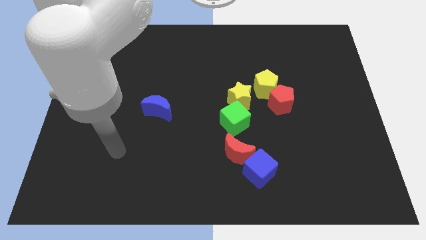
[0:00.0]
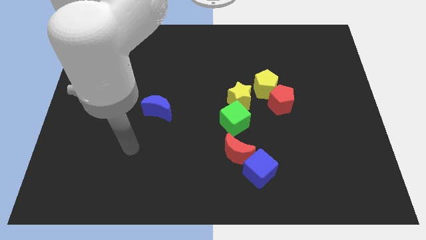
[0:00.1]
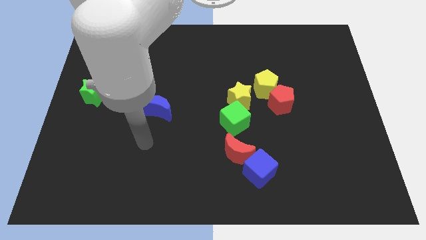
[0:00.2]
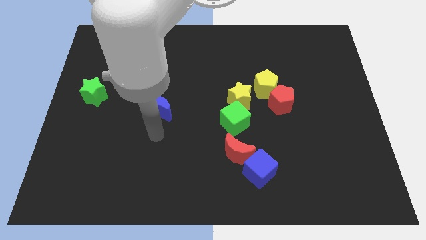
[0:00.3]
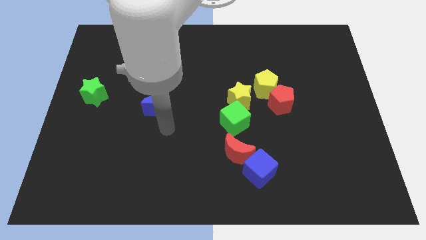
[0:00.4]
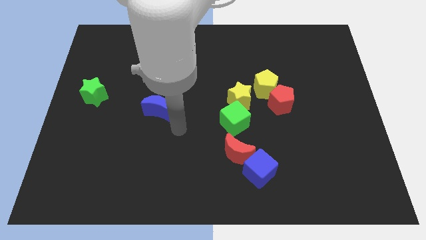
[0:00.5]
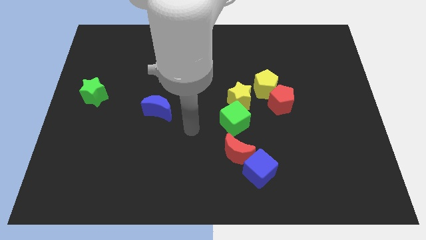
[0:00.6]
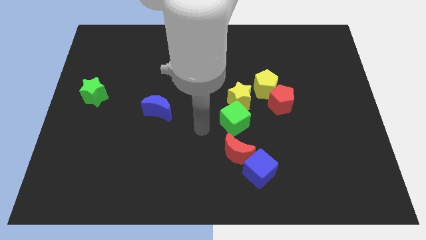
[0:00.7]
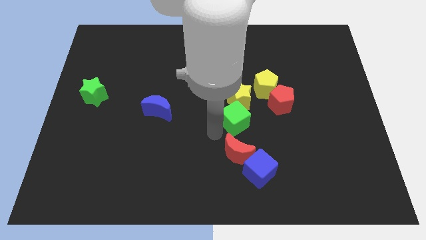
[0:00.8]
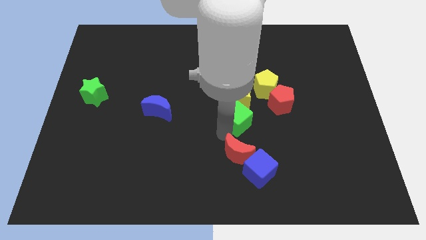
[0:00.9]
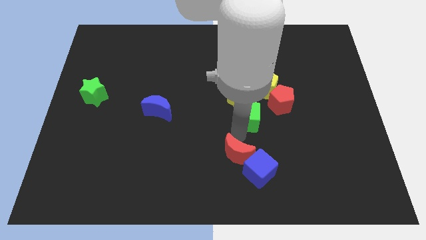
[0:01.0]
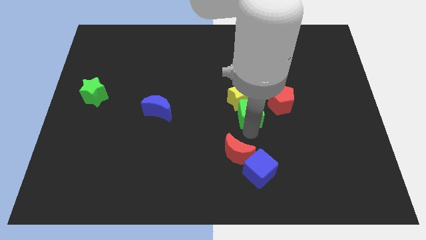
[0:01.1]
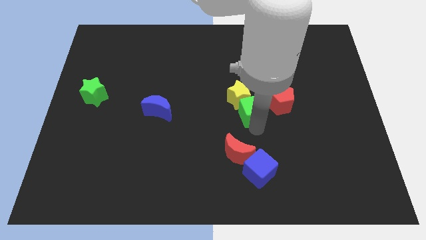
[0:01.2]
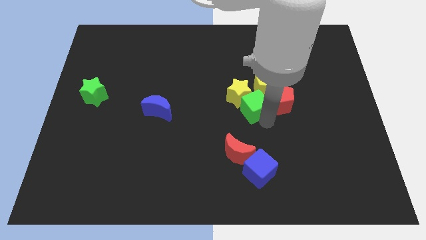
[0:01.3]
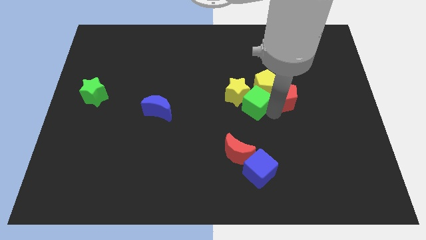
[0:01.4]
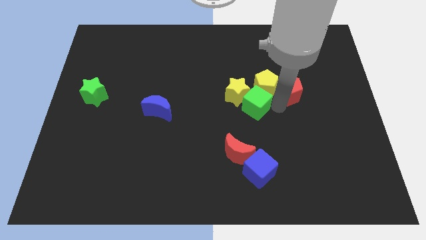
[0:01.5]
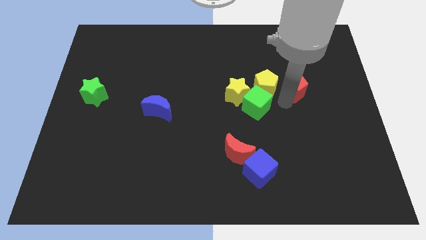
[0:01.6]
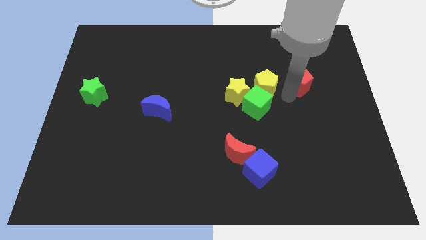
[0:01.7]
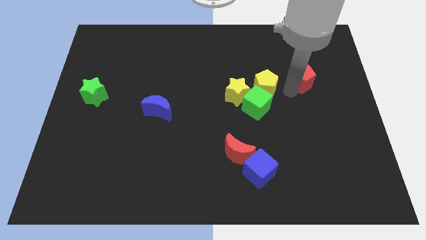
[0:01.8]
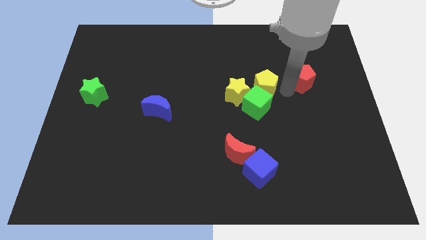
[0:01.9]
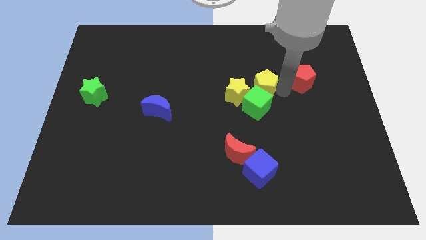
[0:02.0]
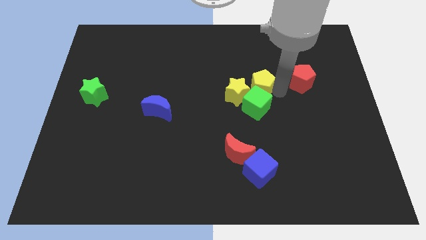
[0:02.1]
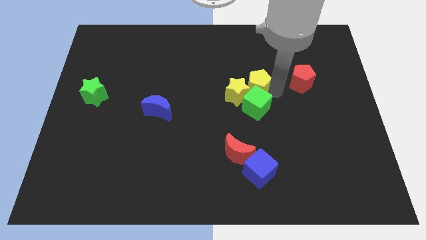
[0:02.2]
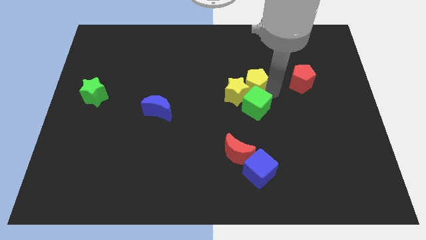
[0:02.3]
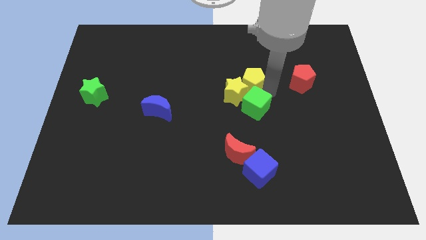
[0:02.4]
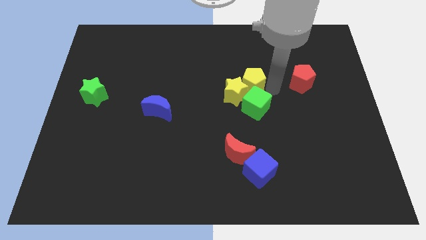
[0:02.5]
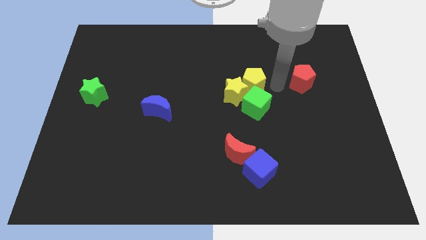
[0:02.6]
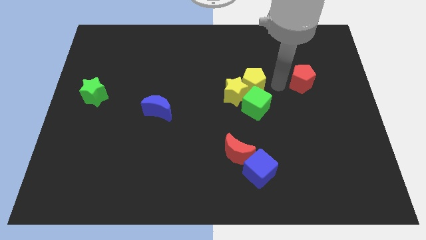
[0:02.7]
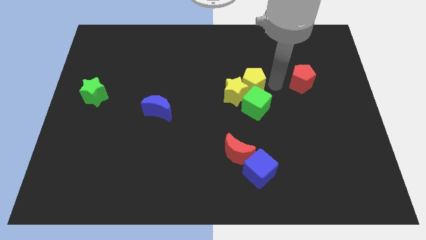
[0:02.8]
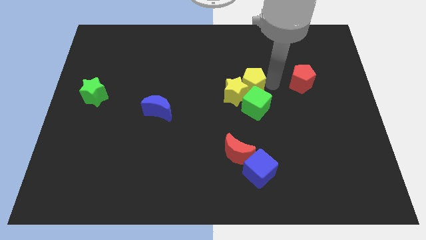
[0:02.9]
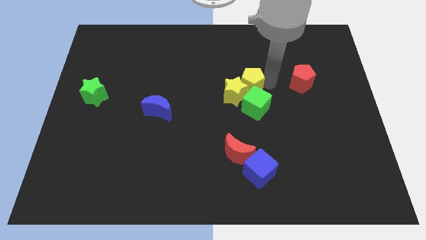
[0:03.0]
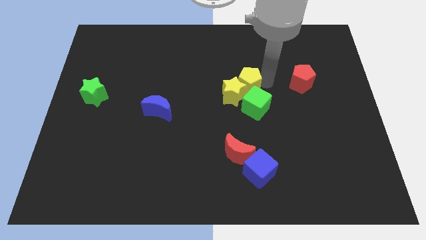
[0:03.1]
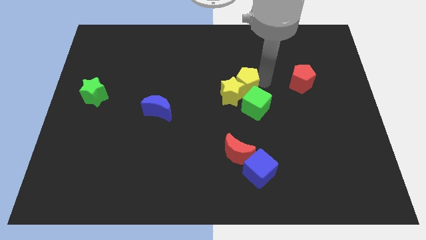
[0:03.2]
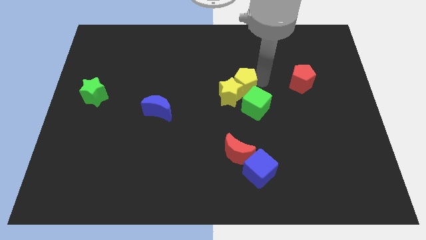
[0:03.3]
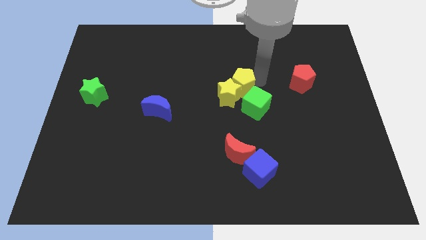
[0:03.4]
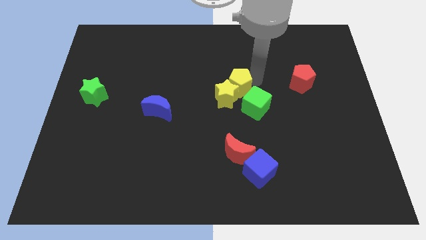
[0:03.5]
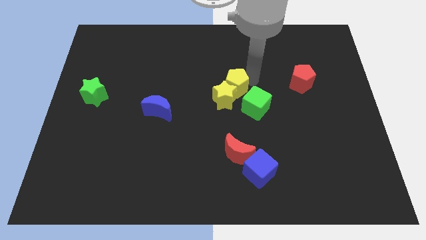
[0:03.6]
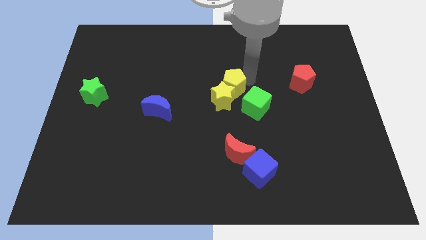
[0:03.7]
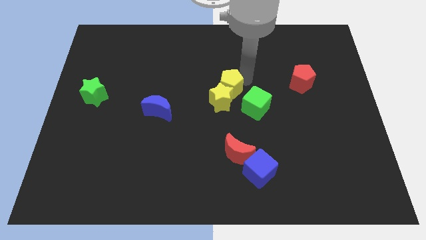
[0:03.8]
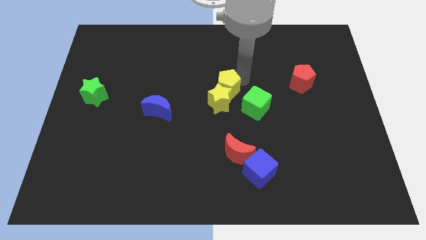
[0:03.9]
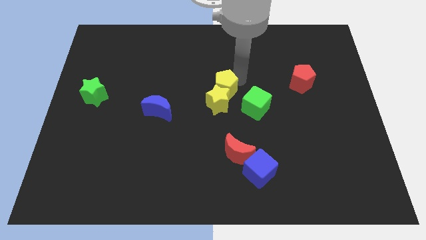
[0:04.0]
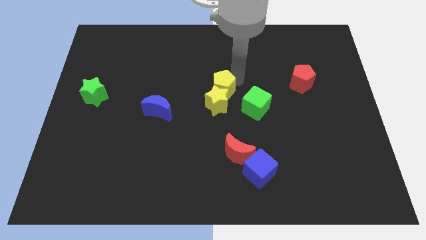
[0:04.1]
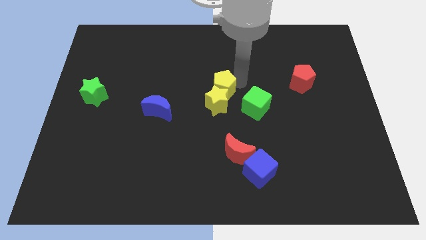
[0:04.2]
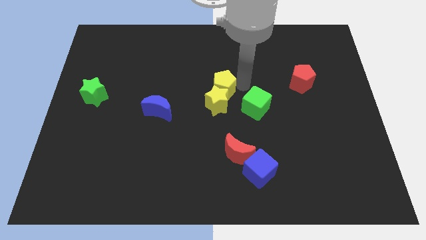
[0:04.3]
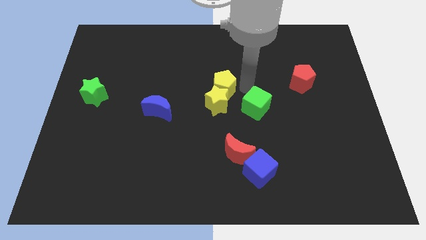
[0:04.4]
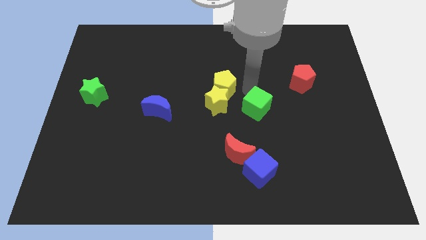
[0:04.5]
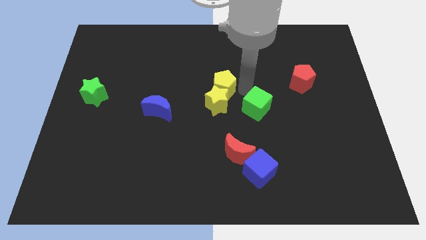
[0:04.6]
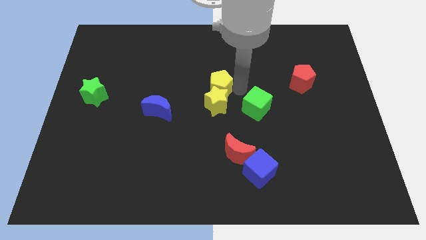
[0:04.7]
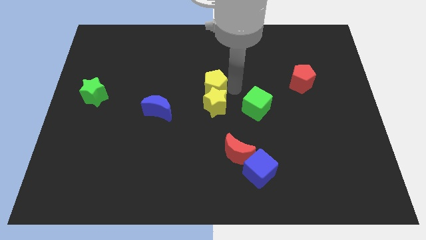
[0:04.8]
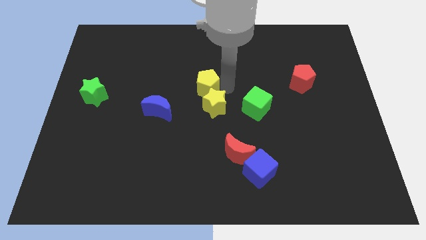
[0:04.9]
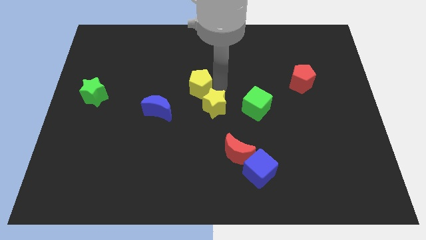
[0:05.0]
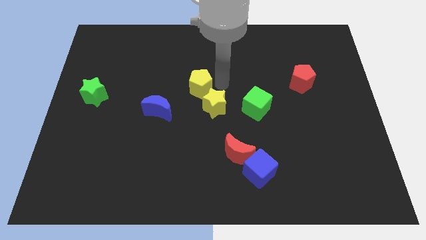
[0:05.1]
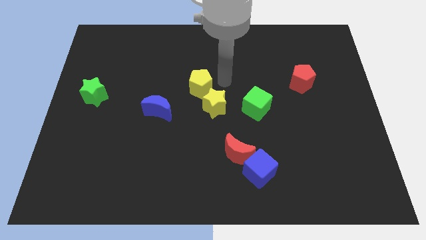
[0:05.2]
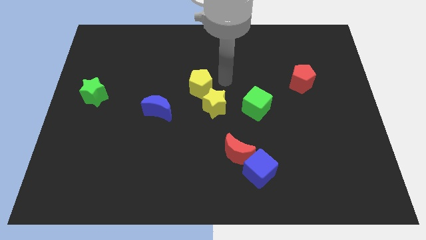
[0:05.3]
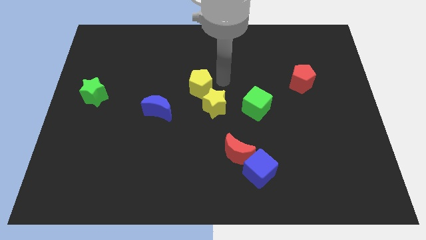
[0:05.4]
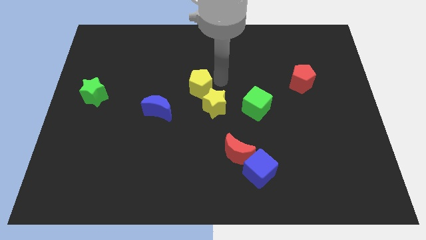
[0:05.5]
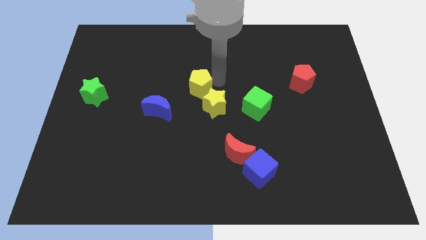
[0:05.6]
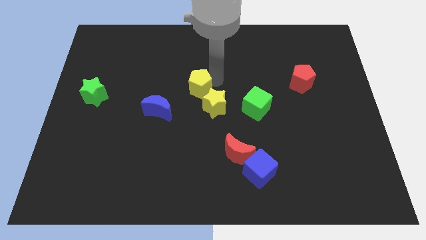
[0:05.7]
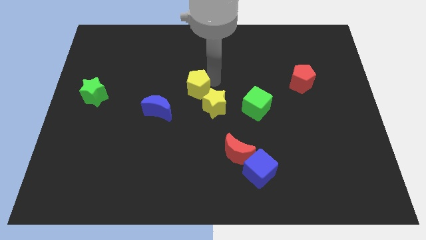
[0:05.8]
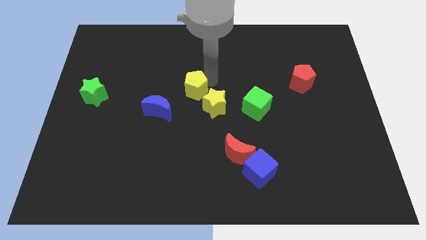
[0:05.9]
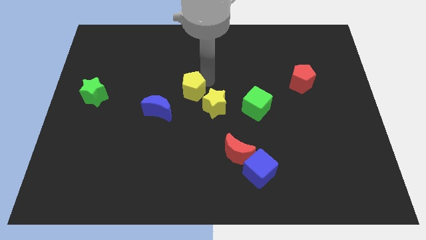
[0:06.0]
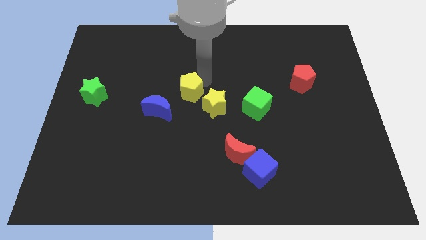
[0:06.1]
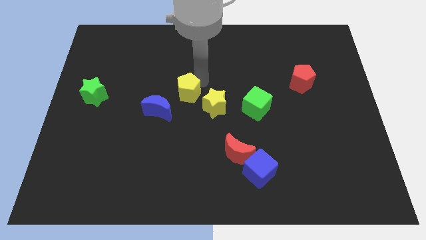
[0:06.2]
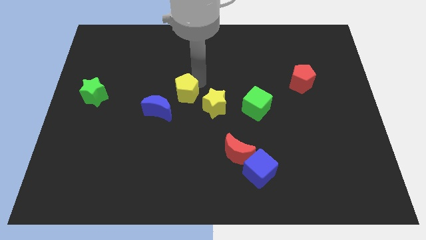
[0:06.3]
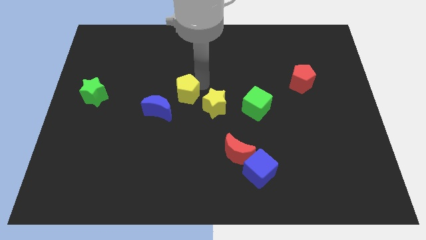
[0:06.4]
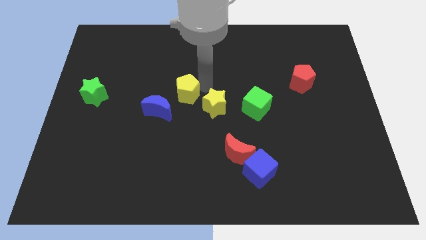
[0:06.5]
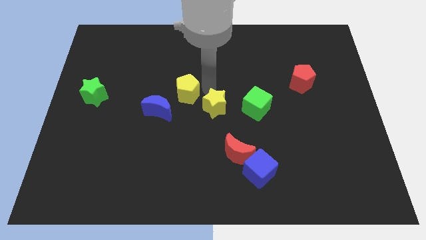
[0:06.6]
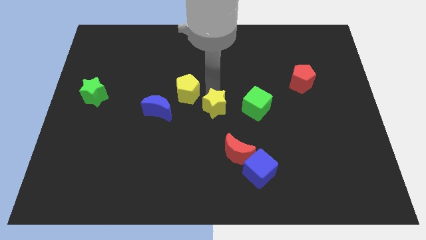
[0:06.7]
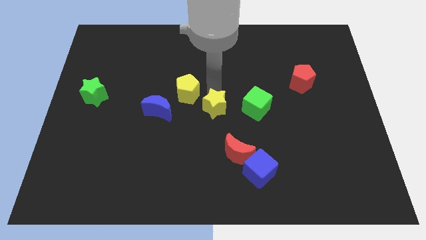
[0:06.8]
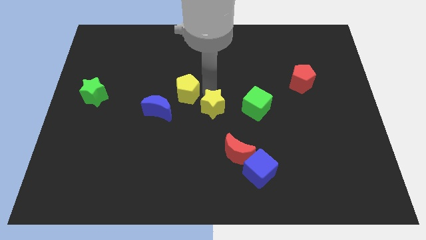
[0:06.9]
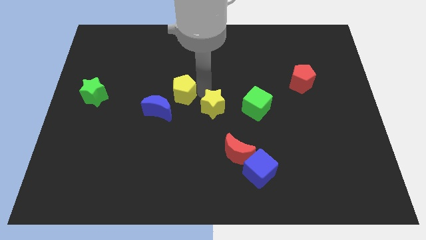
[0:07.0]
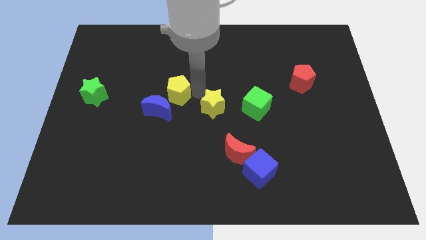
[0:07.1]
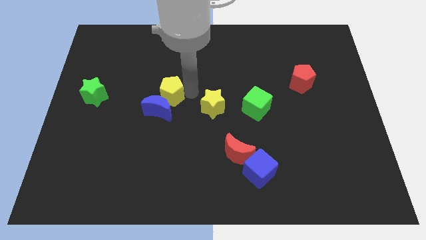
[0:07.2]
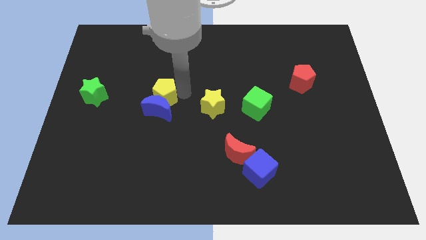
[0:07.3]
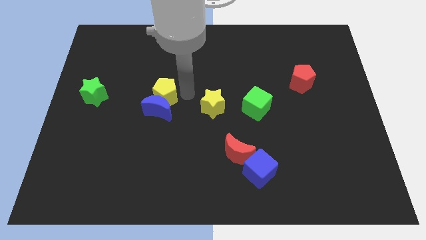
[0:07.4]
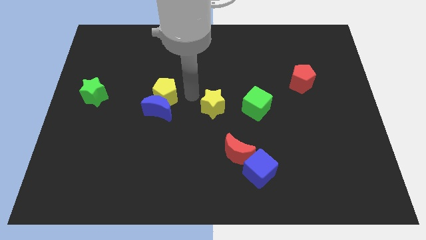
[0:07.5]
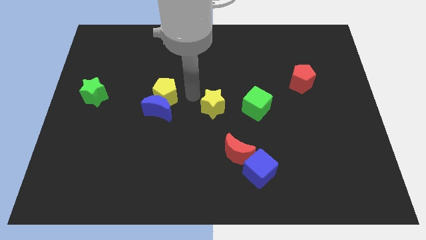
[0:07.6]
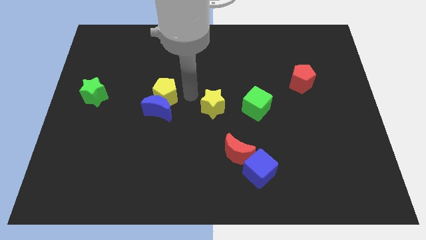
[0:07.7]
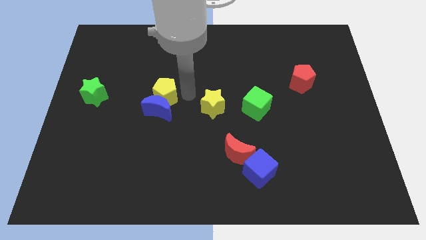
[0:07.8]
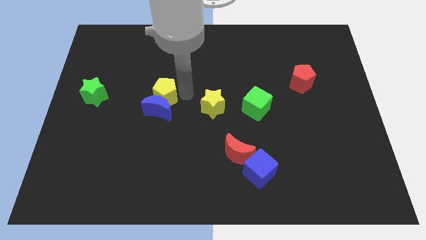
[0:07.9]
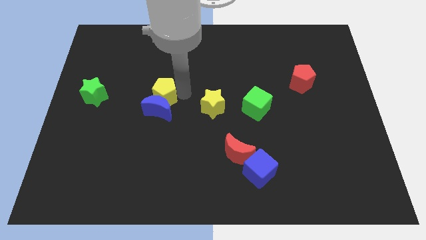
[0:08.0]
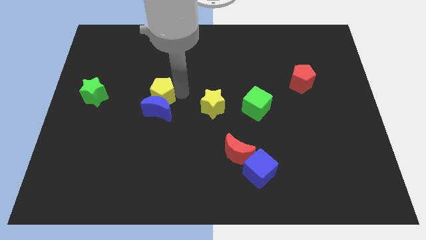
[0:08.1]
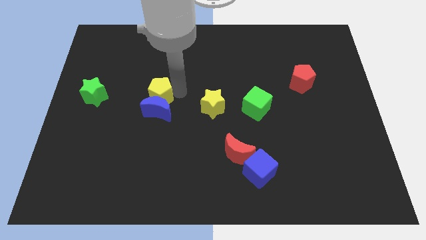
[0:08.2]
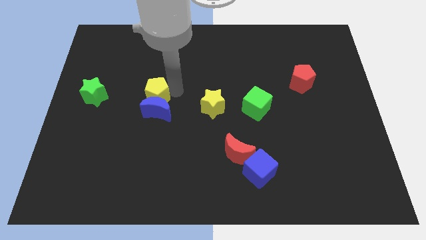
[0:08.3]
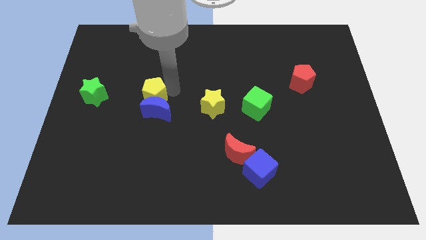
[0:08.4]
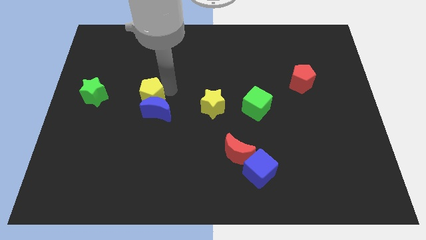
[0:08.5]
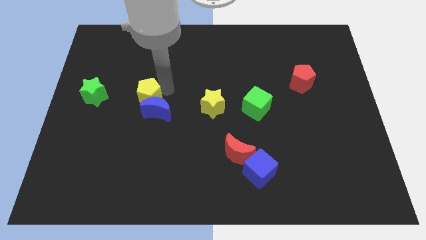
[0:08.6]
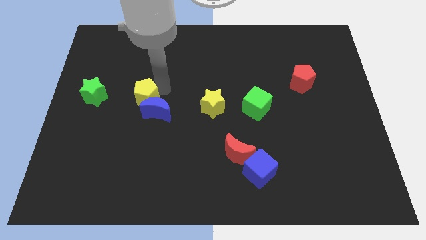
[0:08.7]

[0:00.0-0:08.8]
move the yellow pentagon to the left side of the blue moon
